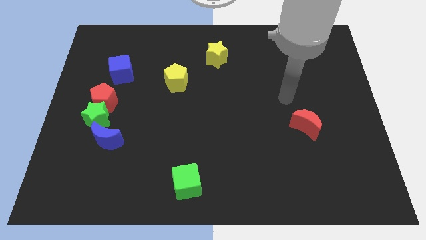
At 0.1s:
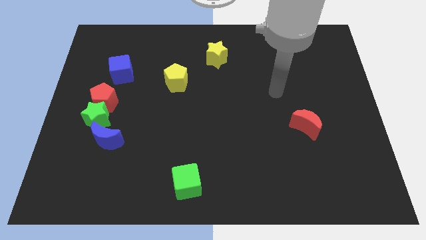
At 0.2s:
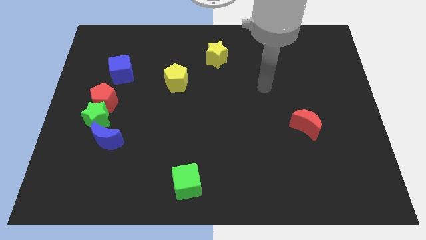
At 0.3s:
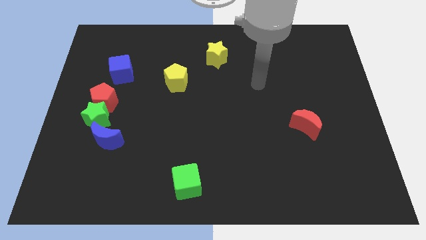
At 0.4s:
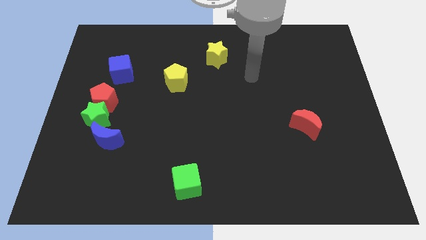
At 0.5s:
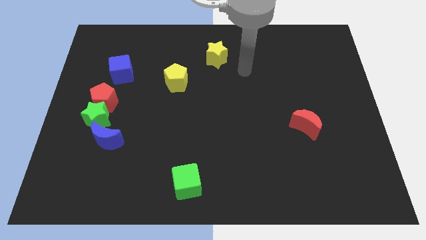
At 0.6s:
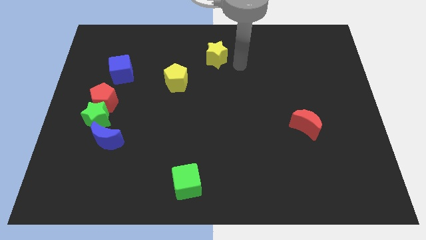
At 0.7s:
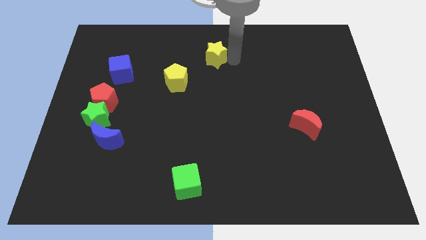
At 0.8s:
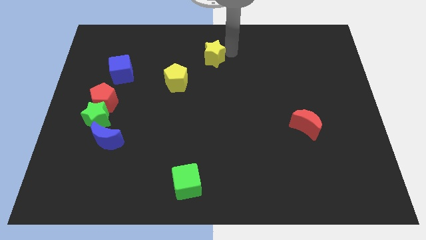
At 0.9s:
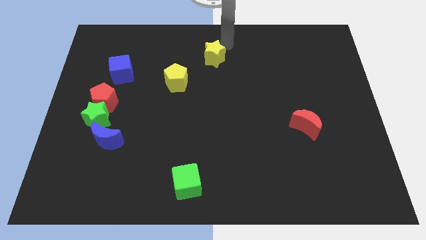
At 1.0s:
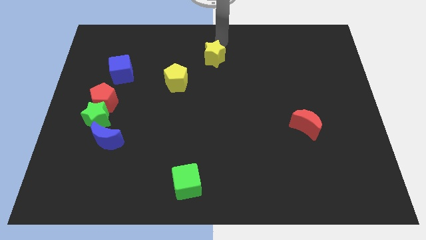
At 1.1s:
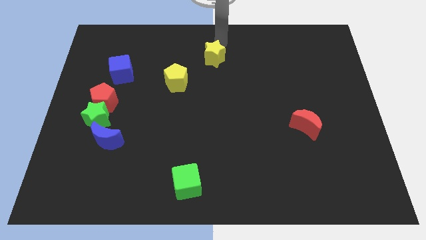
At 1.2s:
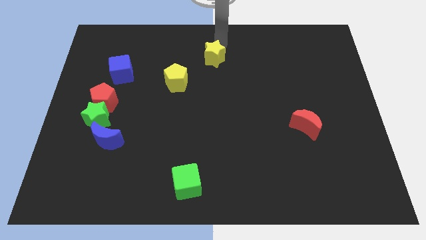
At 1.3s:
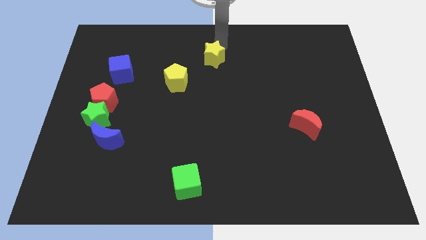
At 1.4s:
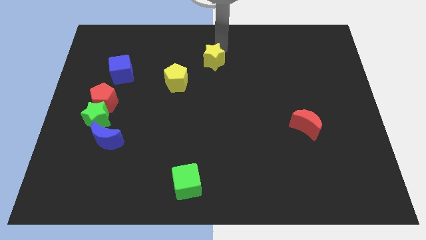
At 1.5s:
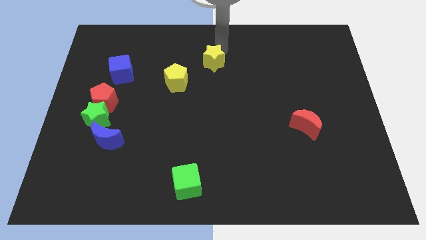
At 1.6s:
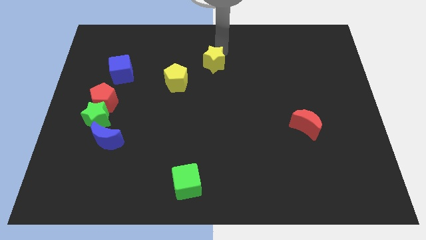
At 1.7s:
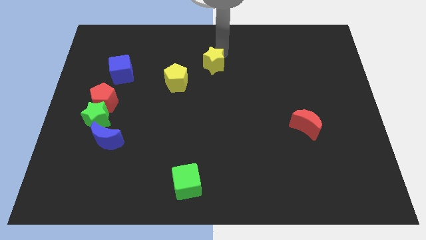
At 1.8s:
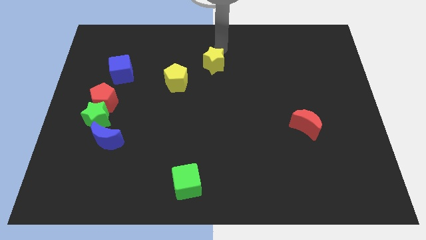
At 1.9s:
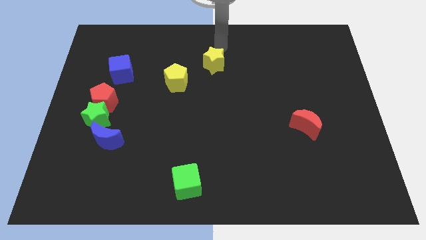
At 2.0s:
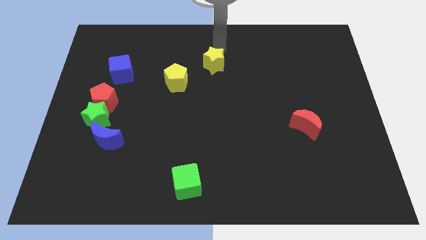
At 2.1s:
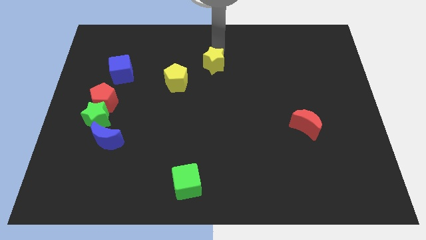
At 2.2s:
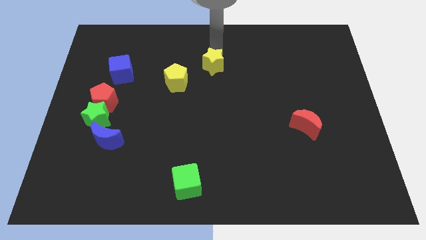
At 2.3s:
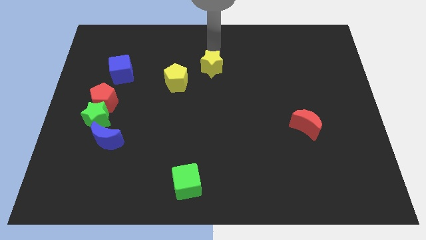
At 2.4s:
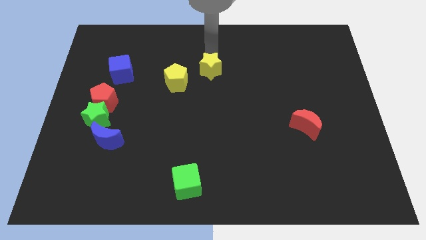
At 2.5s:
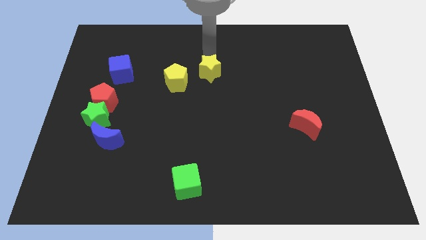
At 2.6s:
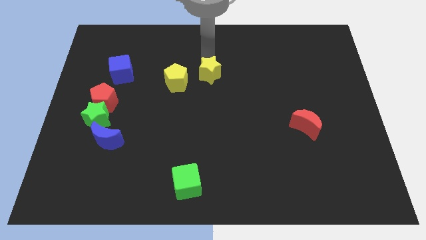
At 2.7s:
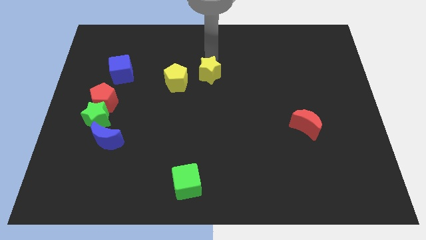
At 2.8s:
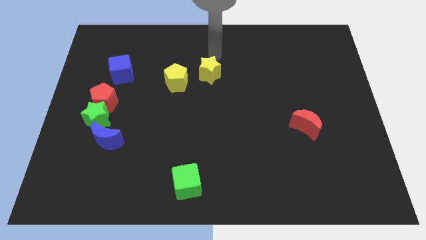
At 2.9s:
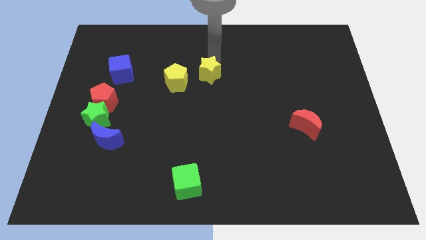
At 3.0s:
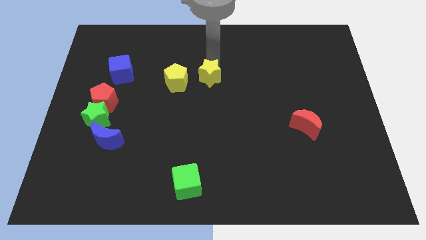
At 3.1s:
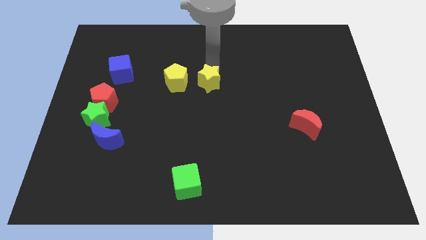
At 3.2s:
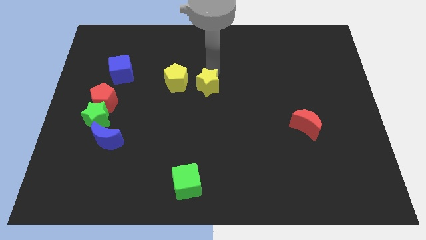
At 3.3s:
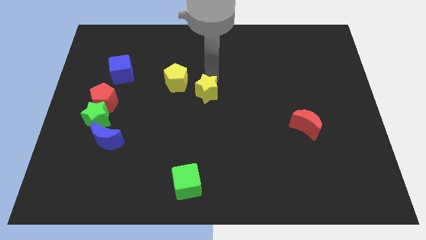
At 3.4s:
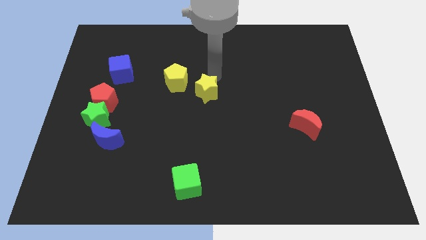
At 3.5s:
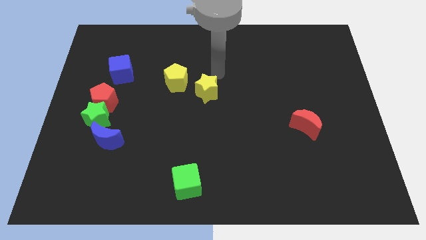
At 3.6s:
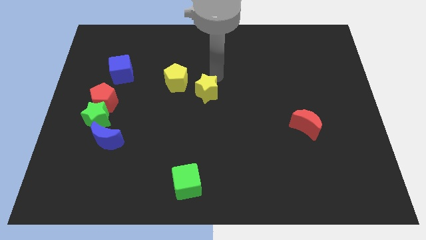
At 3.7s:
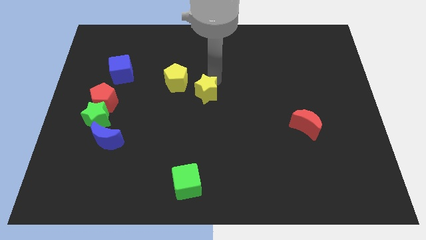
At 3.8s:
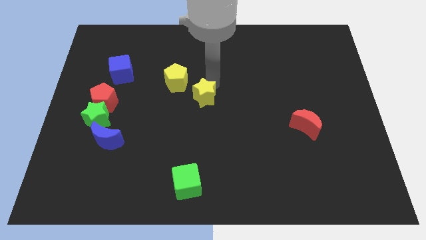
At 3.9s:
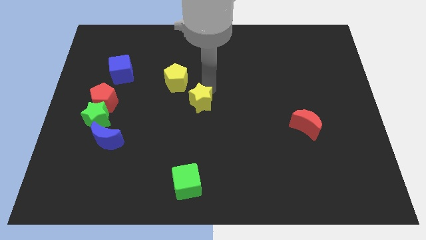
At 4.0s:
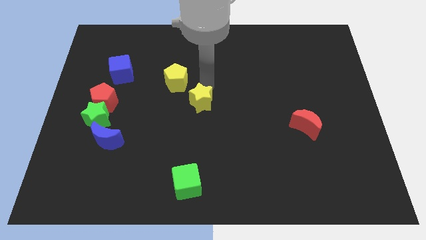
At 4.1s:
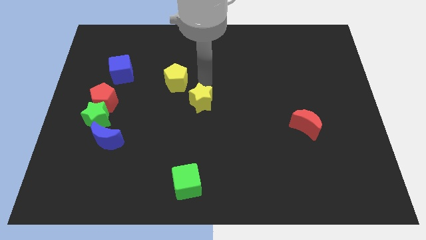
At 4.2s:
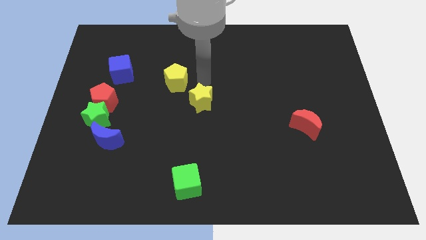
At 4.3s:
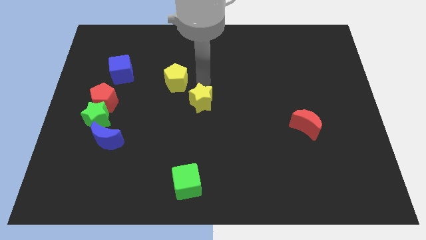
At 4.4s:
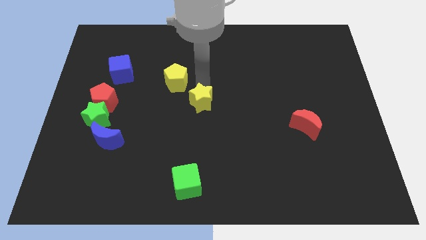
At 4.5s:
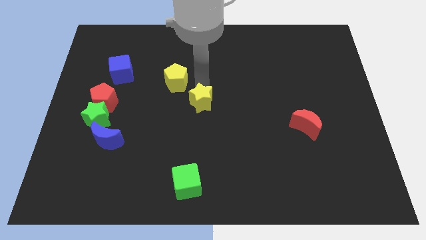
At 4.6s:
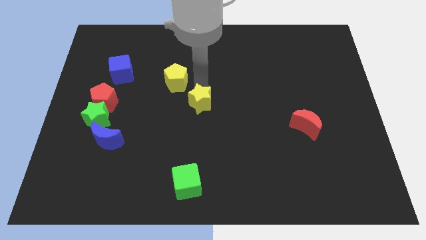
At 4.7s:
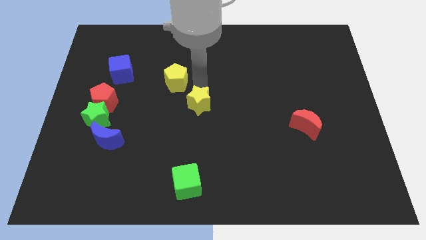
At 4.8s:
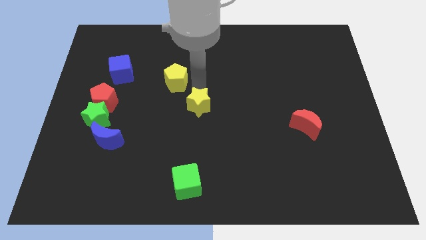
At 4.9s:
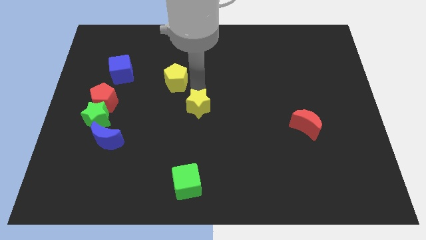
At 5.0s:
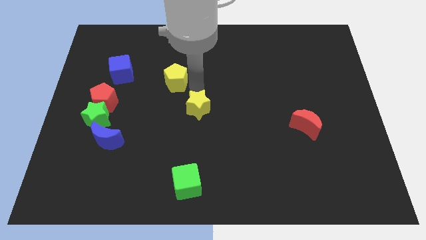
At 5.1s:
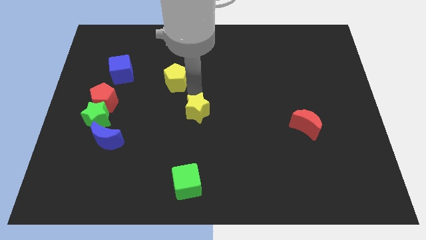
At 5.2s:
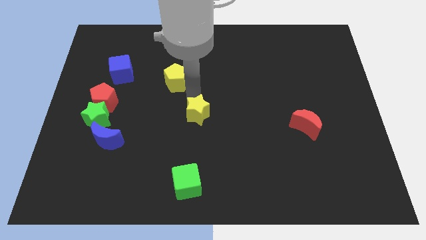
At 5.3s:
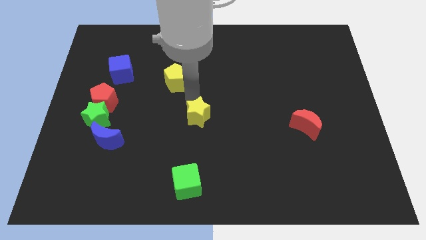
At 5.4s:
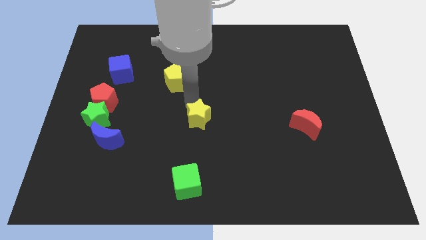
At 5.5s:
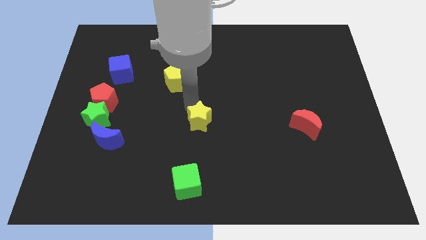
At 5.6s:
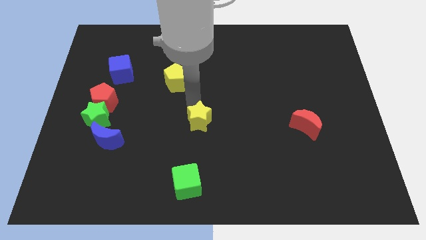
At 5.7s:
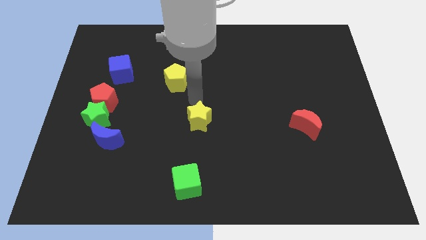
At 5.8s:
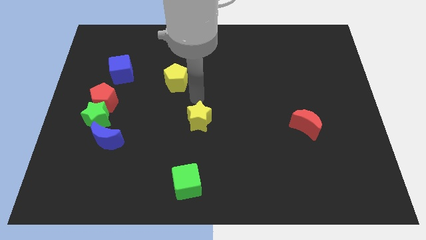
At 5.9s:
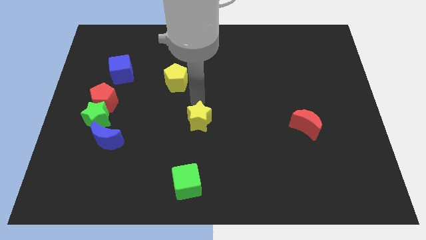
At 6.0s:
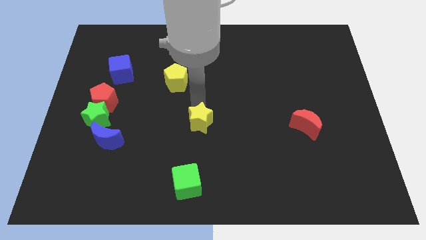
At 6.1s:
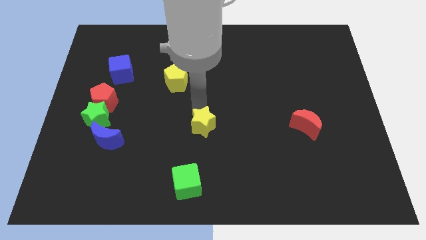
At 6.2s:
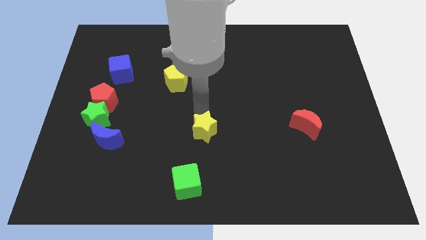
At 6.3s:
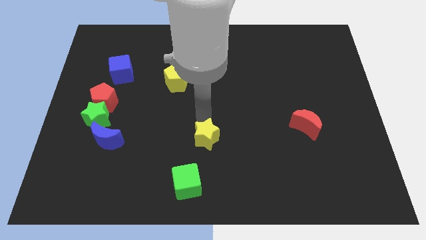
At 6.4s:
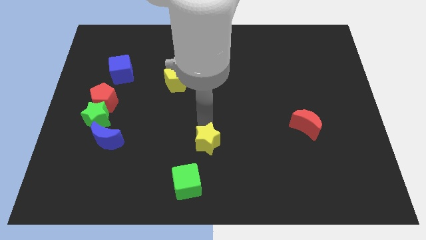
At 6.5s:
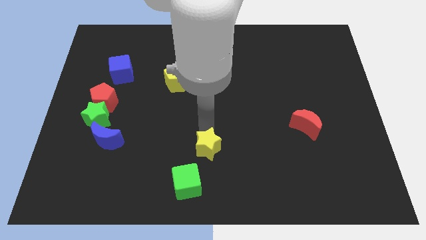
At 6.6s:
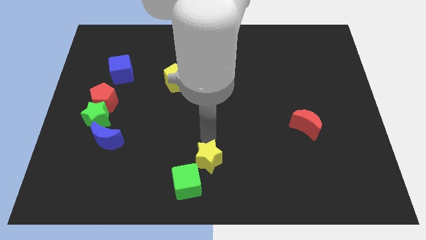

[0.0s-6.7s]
put the yellow star to the bottom side

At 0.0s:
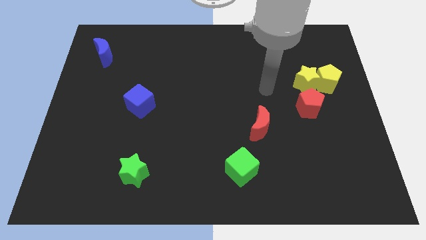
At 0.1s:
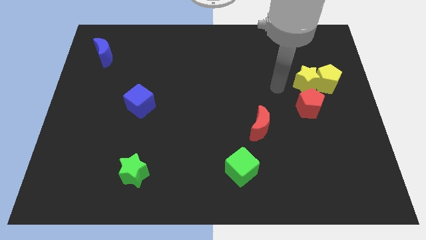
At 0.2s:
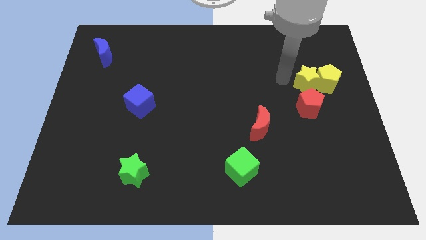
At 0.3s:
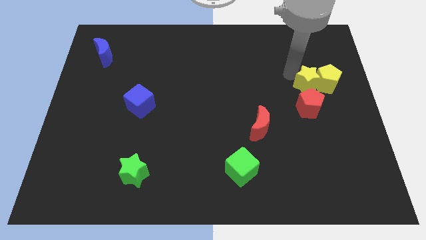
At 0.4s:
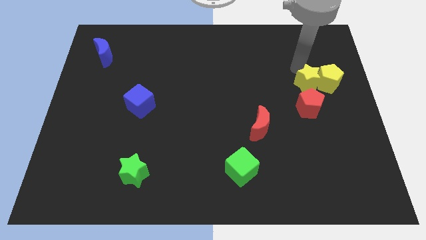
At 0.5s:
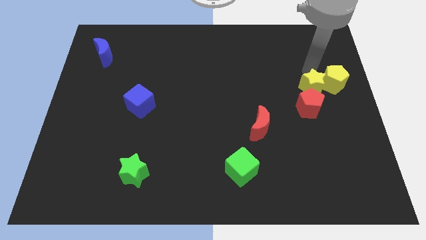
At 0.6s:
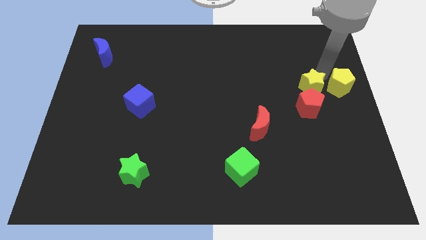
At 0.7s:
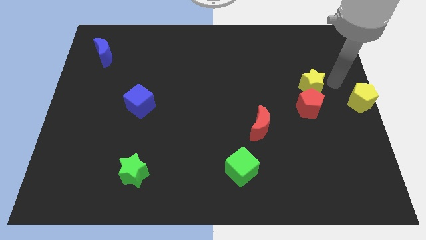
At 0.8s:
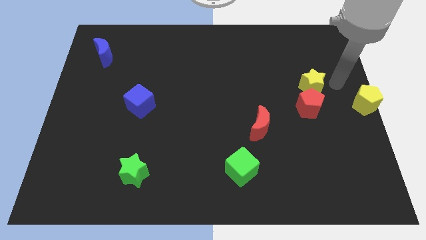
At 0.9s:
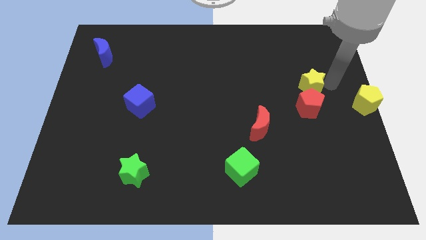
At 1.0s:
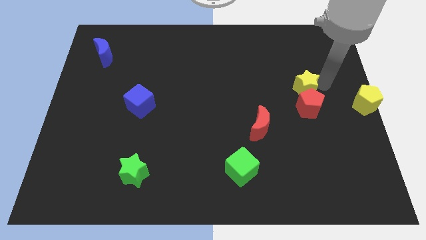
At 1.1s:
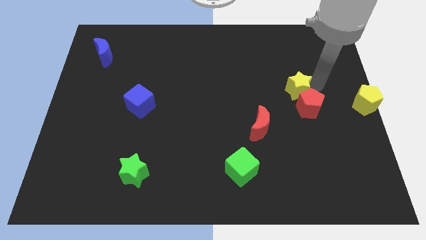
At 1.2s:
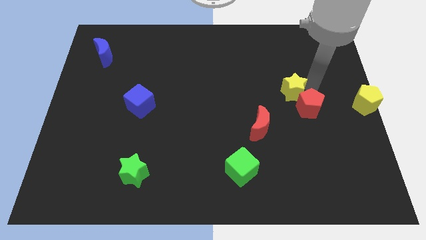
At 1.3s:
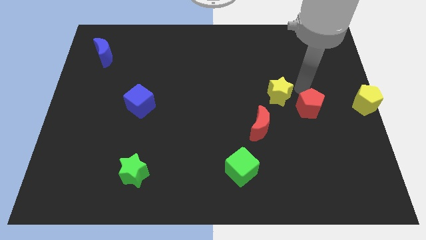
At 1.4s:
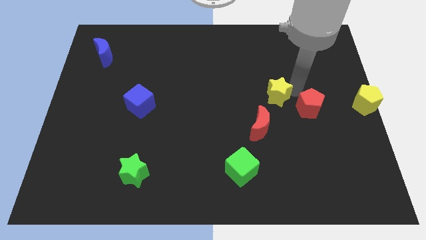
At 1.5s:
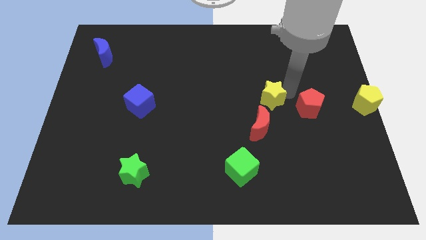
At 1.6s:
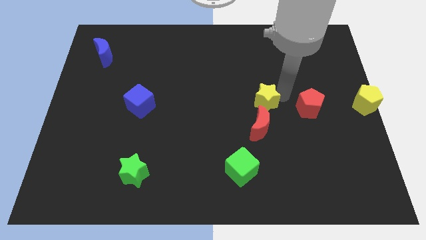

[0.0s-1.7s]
push the yellow star to the center
